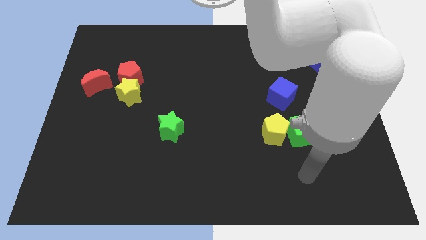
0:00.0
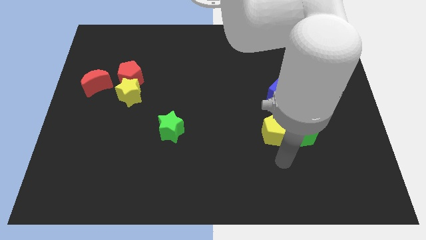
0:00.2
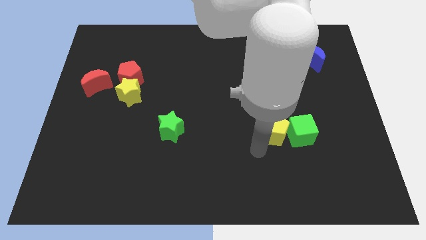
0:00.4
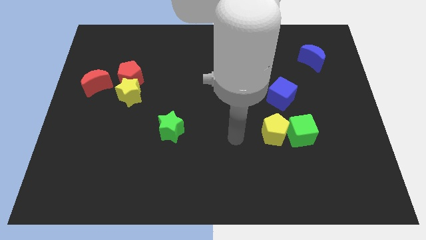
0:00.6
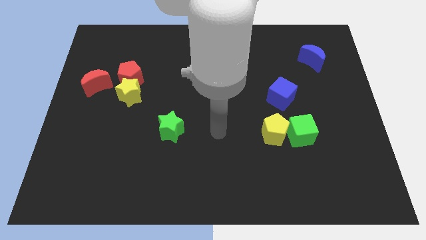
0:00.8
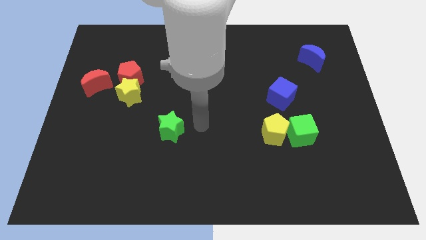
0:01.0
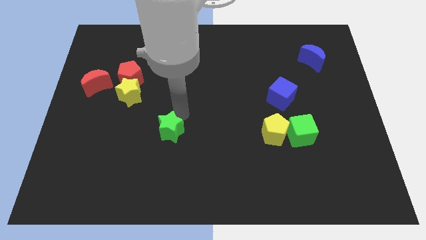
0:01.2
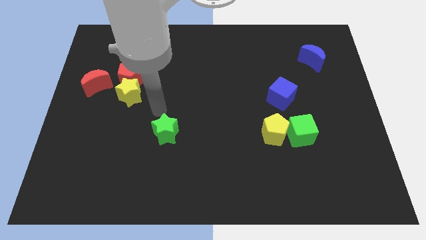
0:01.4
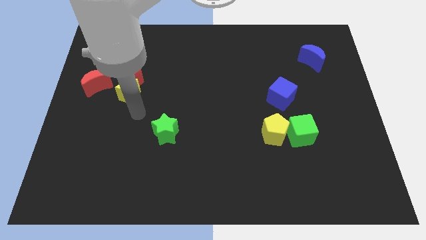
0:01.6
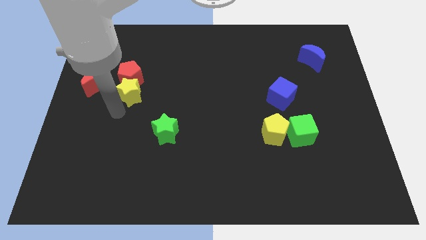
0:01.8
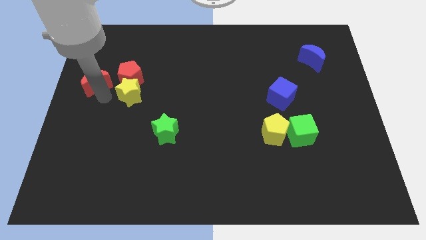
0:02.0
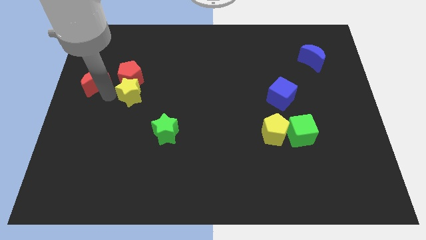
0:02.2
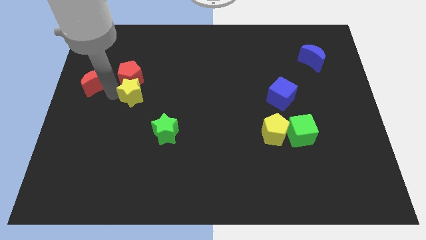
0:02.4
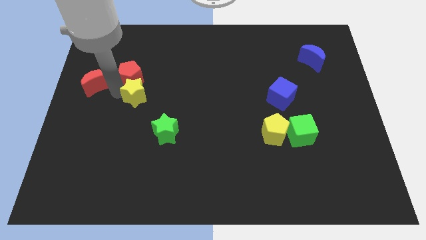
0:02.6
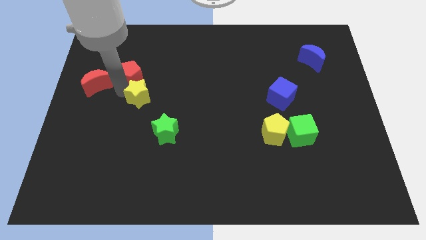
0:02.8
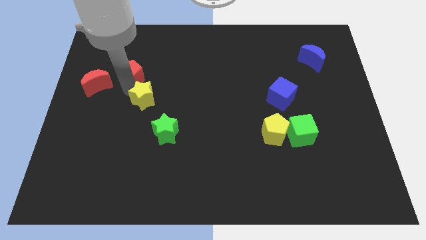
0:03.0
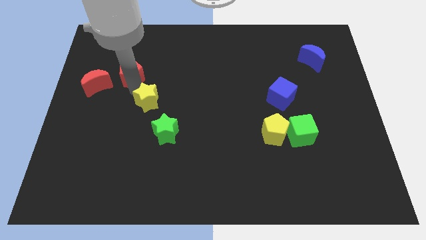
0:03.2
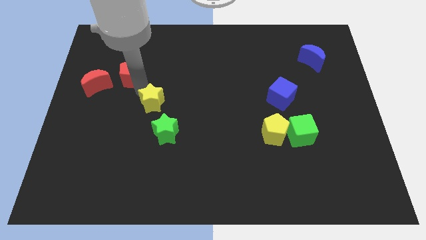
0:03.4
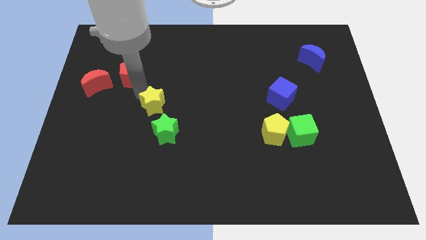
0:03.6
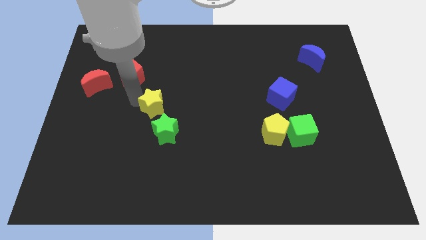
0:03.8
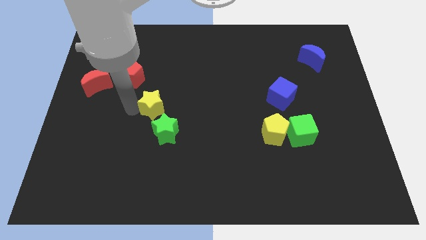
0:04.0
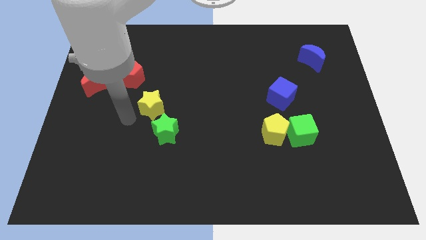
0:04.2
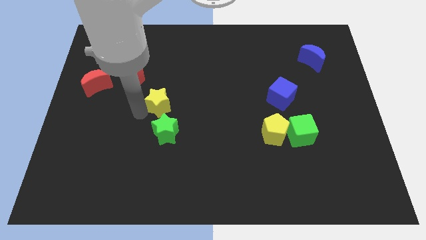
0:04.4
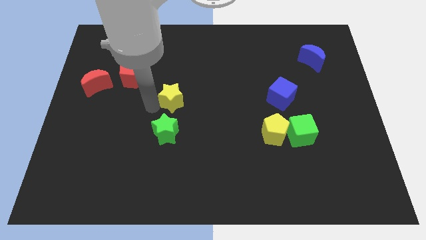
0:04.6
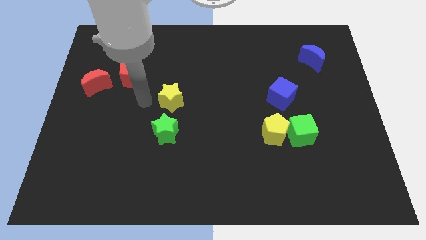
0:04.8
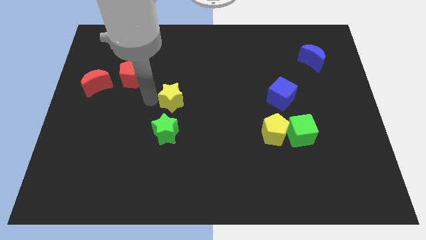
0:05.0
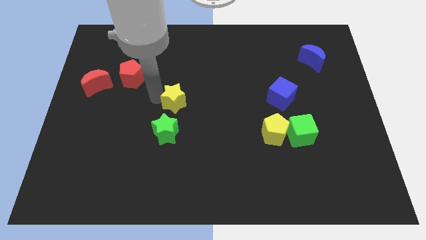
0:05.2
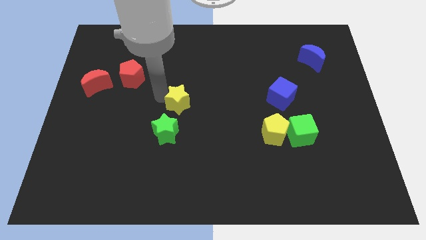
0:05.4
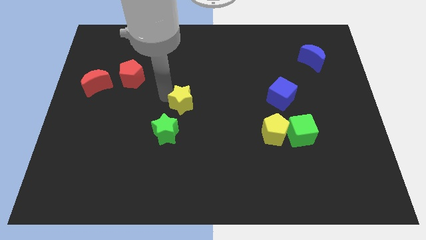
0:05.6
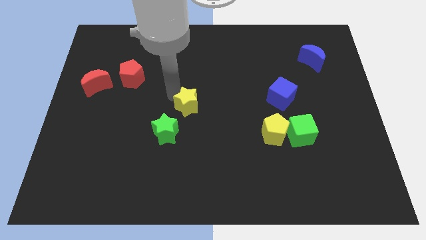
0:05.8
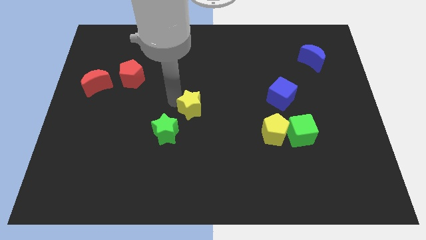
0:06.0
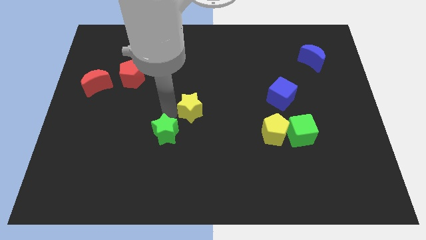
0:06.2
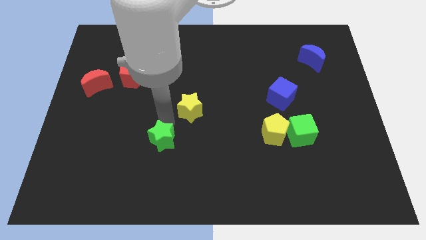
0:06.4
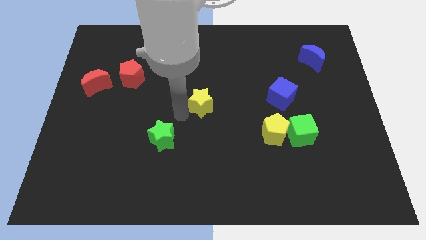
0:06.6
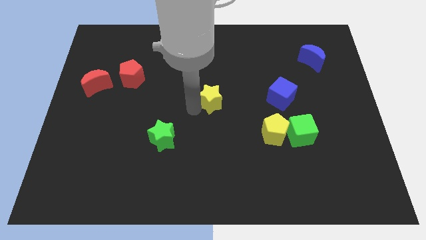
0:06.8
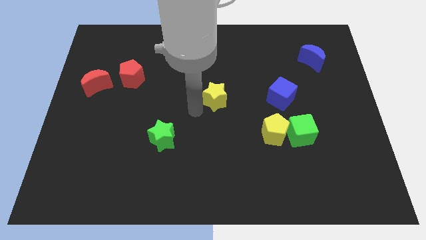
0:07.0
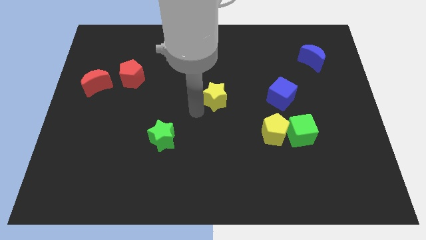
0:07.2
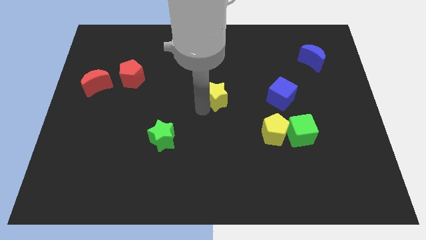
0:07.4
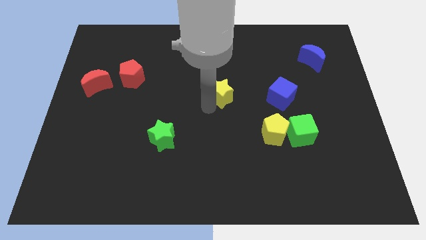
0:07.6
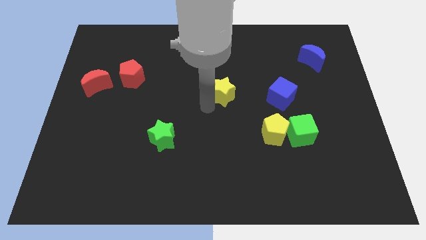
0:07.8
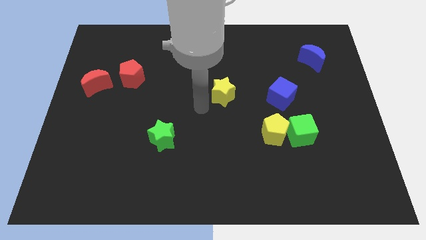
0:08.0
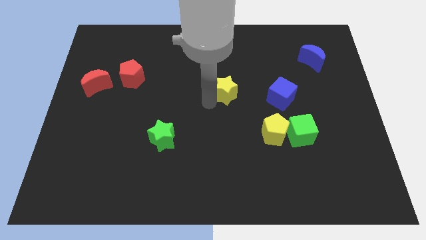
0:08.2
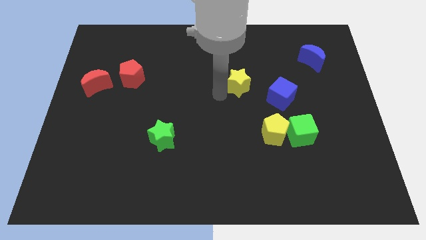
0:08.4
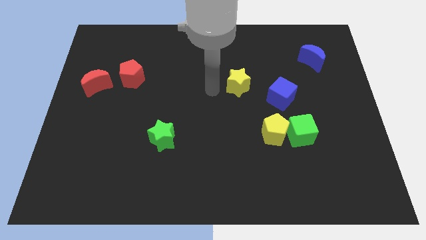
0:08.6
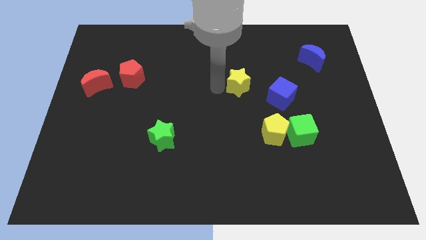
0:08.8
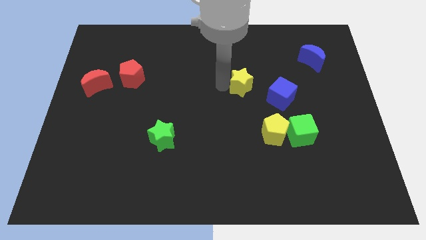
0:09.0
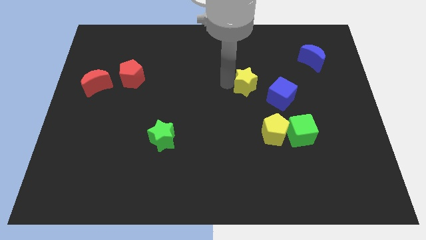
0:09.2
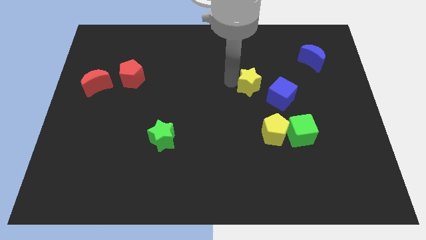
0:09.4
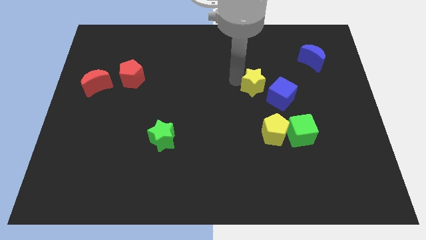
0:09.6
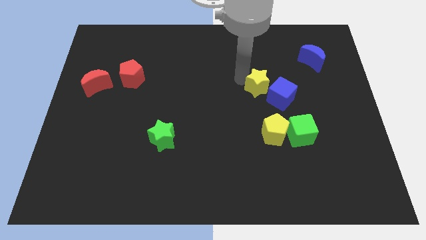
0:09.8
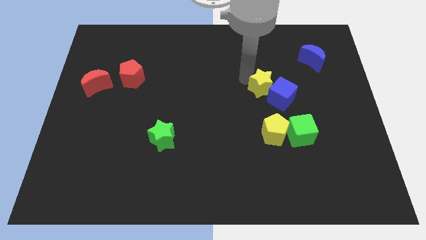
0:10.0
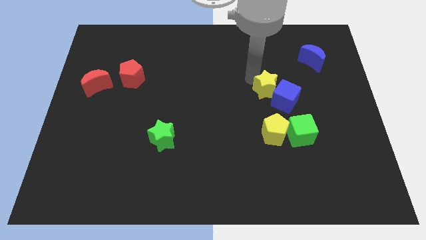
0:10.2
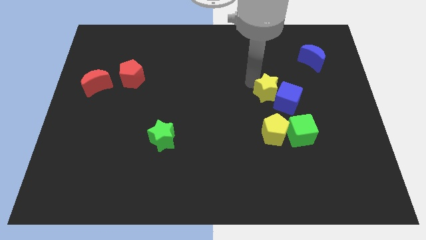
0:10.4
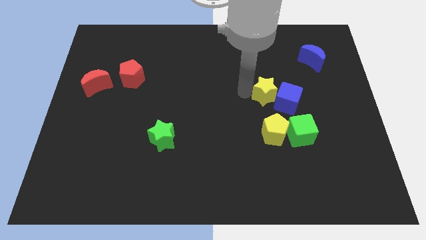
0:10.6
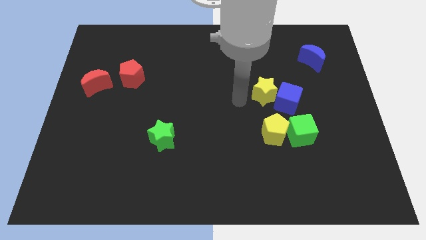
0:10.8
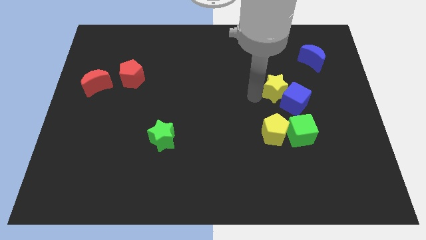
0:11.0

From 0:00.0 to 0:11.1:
put the yellow star above the green cube

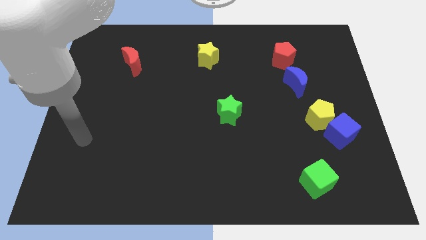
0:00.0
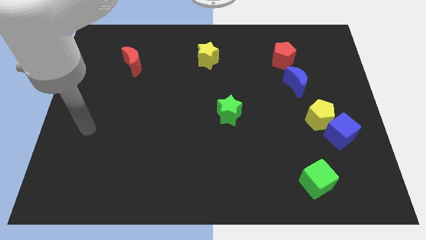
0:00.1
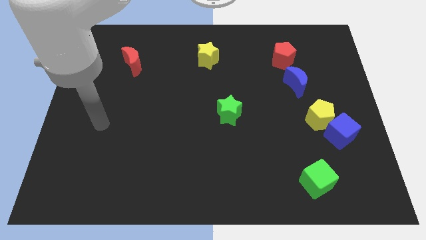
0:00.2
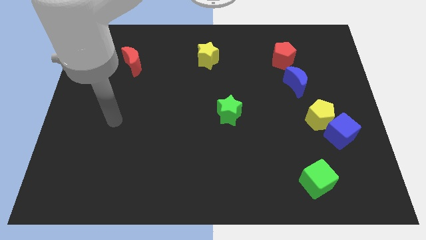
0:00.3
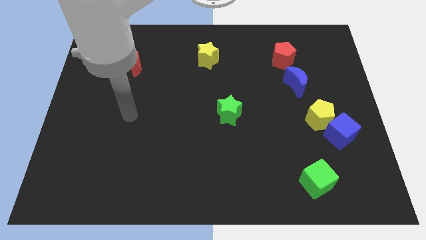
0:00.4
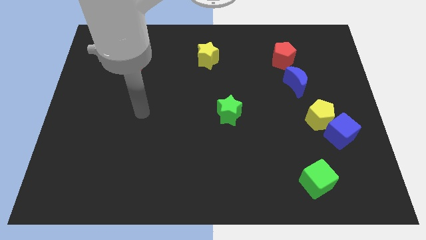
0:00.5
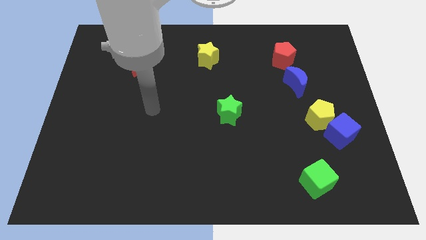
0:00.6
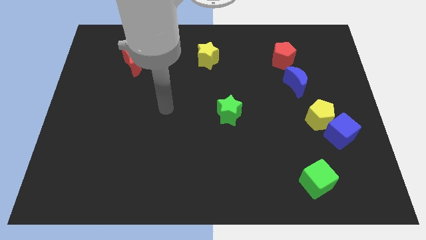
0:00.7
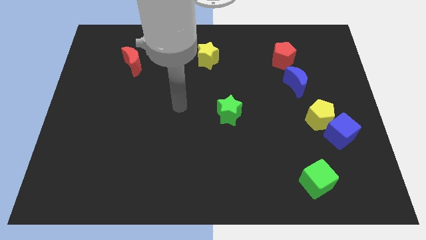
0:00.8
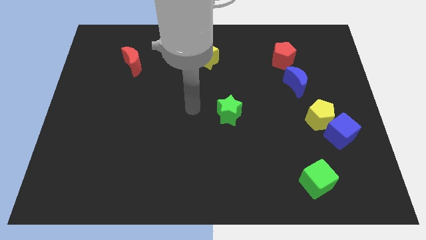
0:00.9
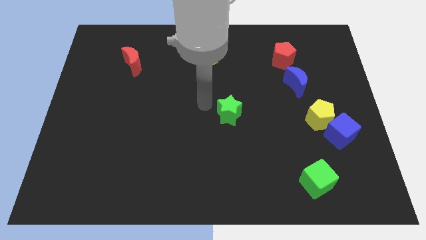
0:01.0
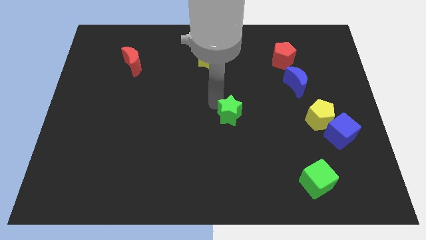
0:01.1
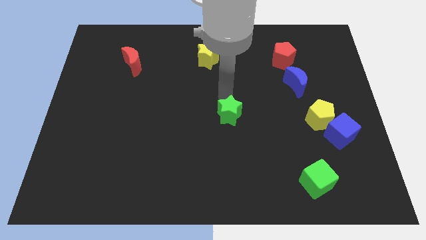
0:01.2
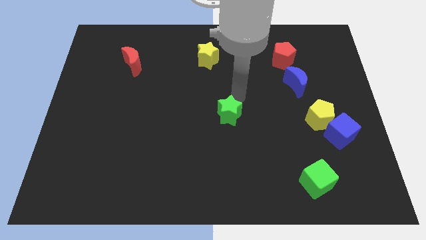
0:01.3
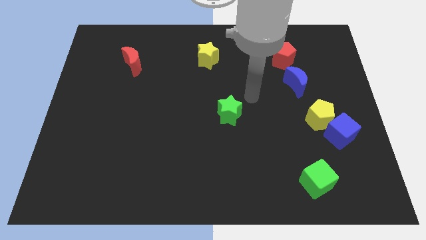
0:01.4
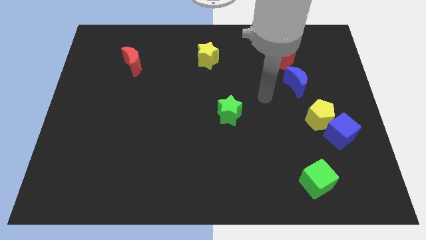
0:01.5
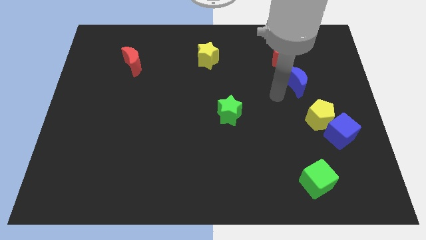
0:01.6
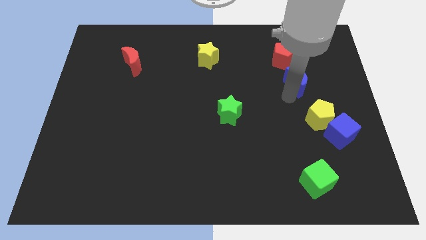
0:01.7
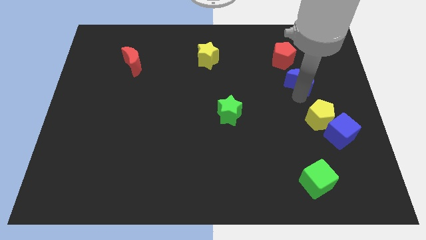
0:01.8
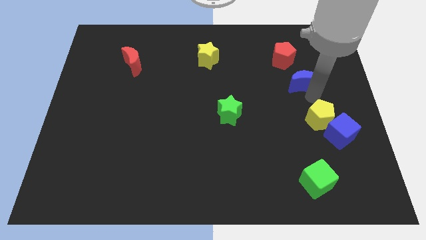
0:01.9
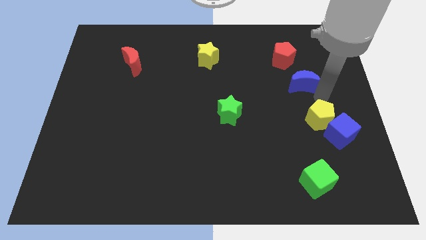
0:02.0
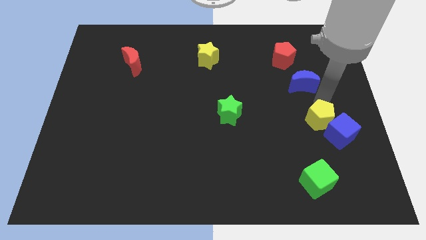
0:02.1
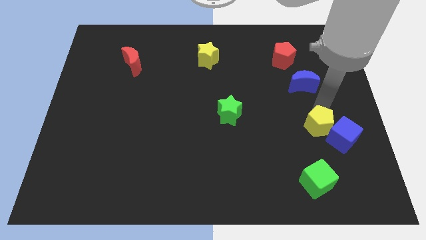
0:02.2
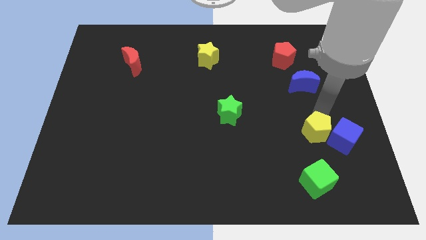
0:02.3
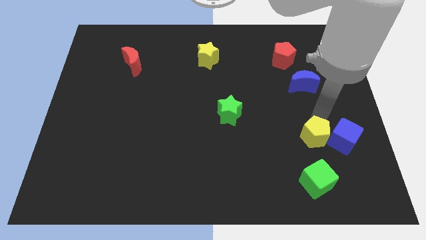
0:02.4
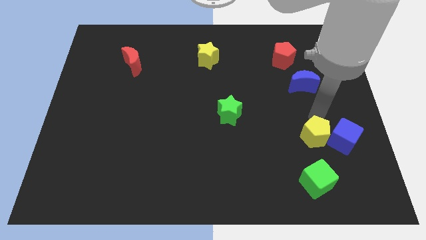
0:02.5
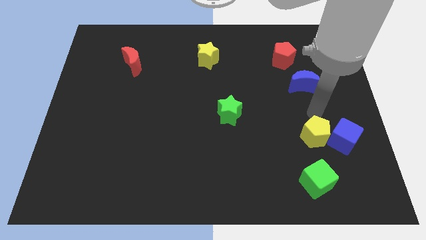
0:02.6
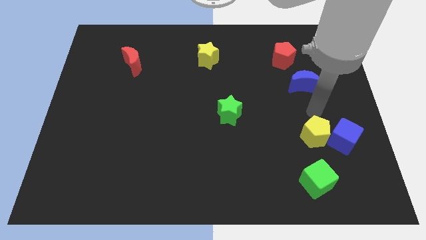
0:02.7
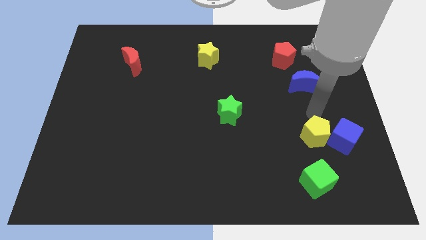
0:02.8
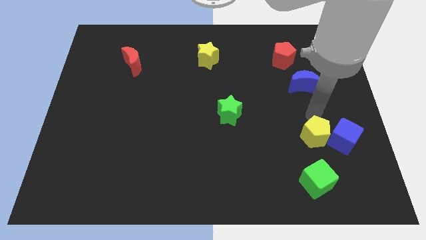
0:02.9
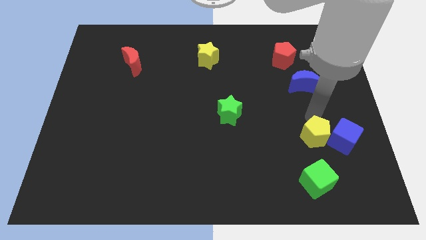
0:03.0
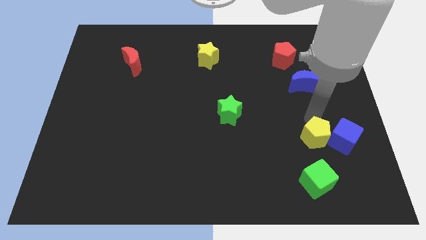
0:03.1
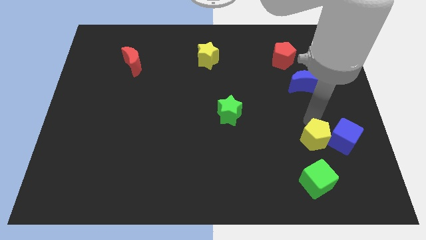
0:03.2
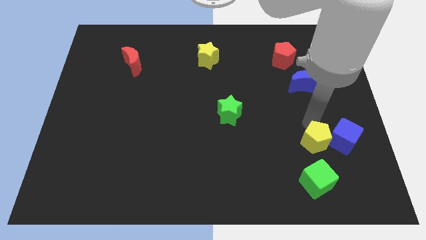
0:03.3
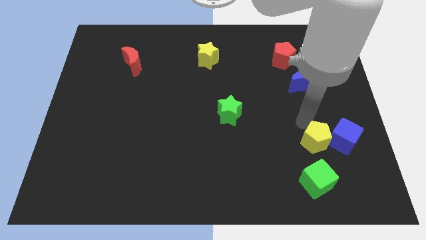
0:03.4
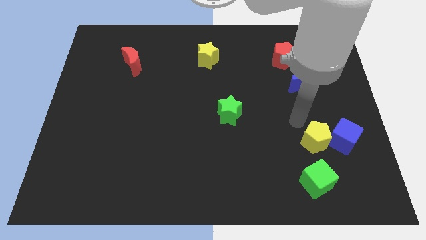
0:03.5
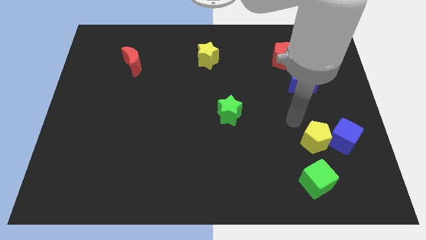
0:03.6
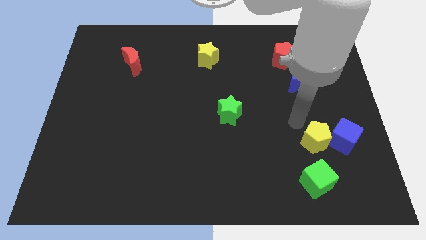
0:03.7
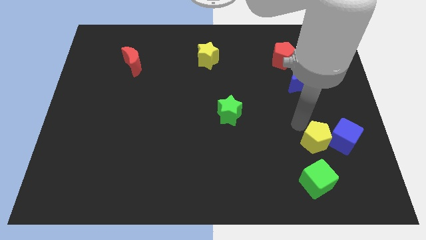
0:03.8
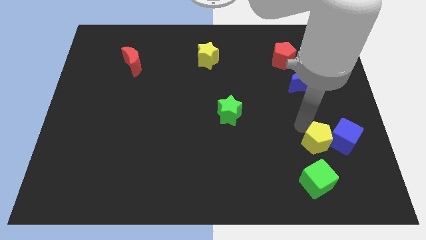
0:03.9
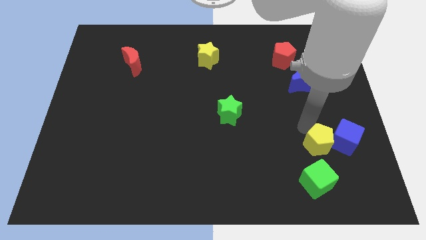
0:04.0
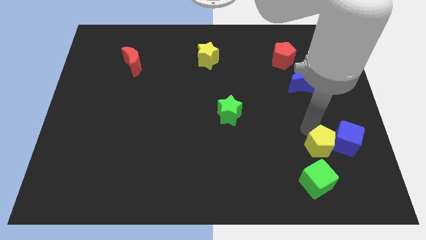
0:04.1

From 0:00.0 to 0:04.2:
put the yellow pentagon diagonally up and to the right of the green cube
